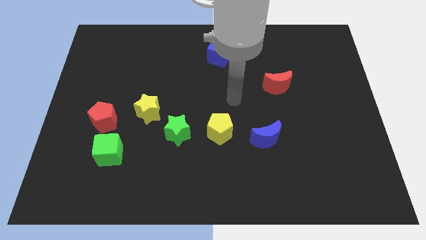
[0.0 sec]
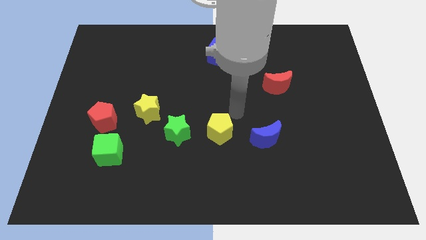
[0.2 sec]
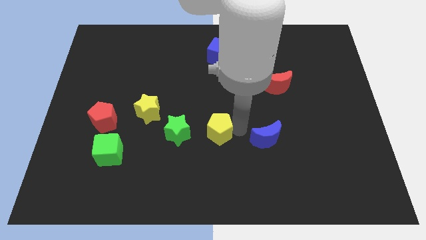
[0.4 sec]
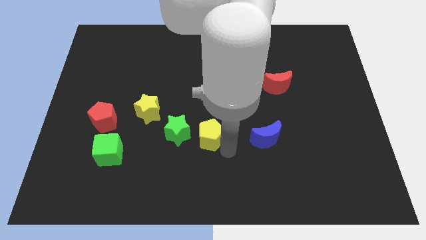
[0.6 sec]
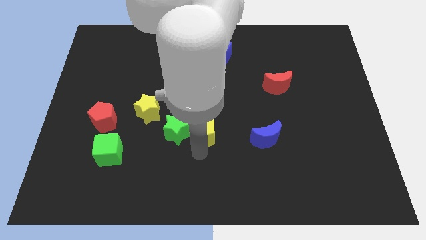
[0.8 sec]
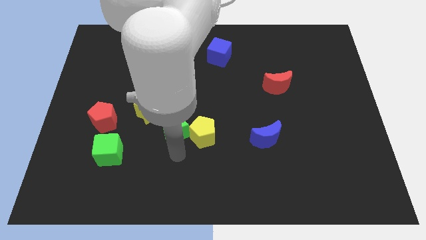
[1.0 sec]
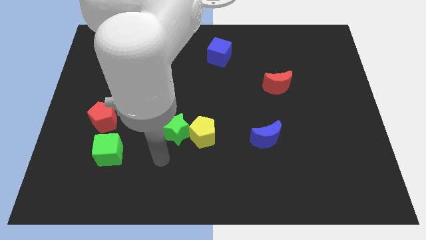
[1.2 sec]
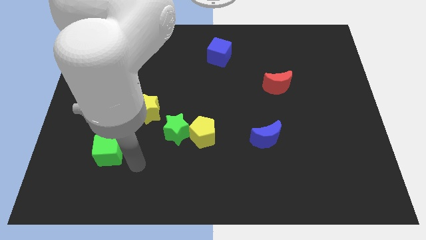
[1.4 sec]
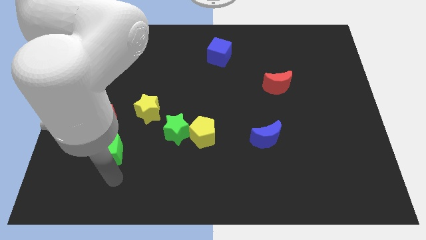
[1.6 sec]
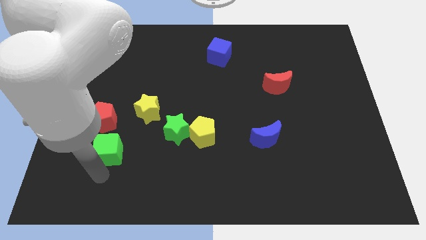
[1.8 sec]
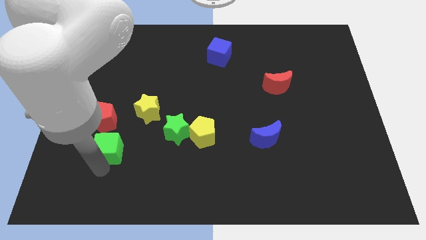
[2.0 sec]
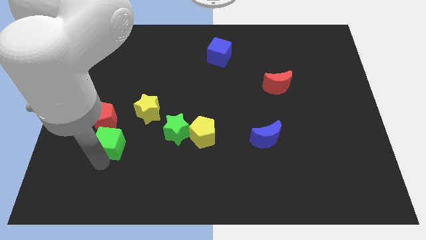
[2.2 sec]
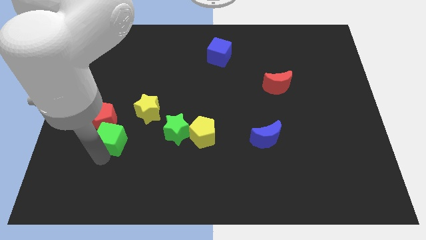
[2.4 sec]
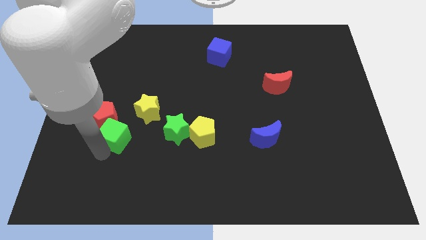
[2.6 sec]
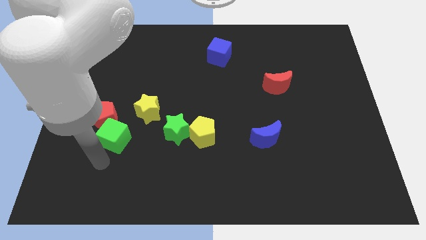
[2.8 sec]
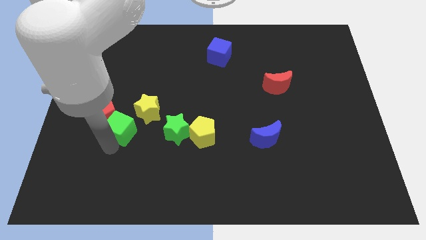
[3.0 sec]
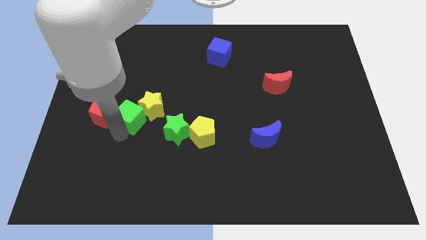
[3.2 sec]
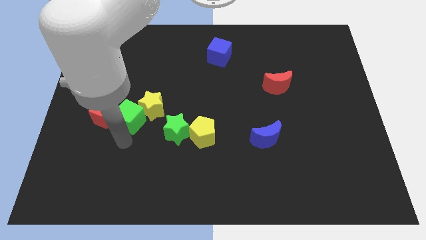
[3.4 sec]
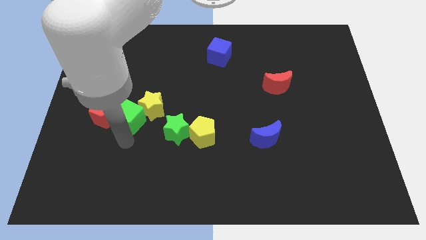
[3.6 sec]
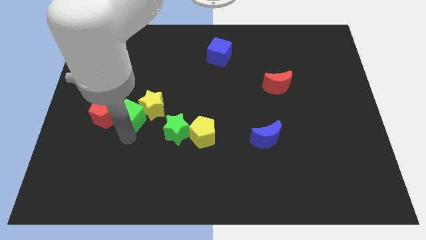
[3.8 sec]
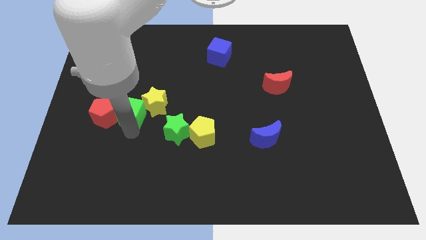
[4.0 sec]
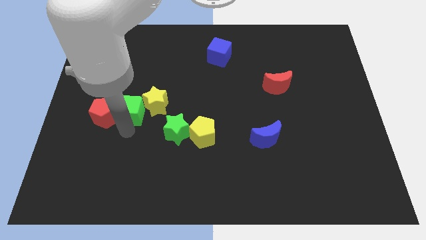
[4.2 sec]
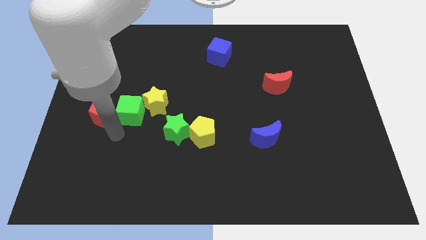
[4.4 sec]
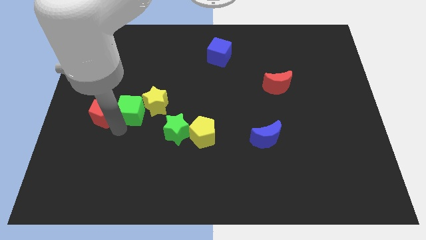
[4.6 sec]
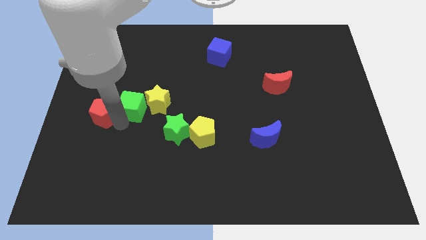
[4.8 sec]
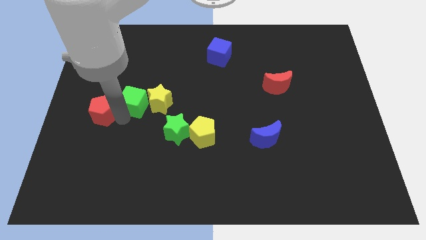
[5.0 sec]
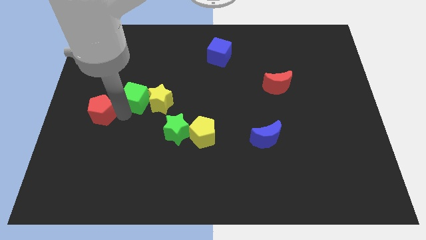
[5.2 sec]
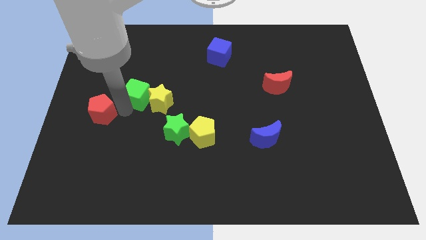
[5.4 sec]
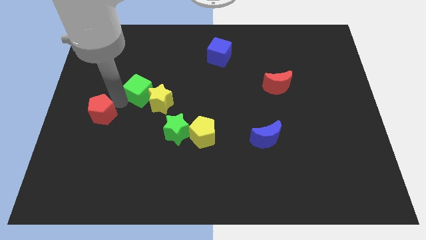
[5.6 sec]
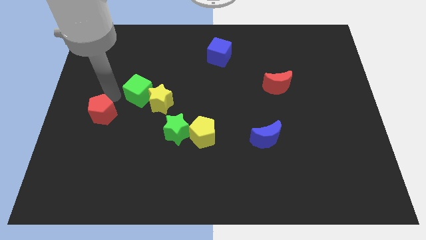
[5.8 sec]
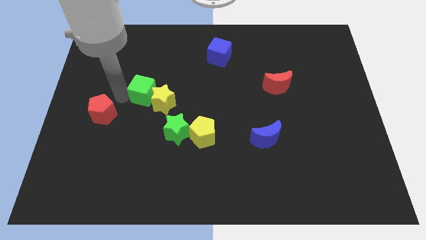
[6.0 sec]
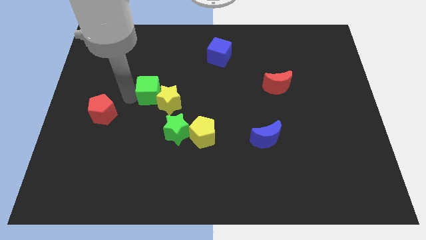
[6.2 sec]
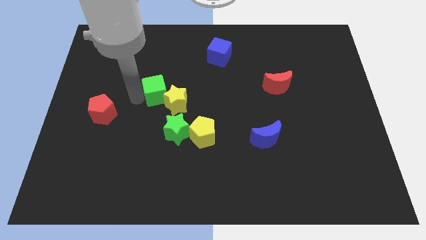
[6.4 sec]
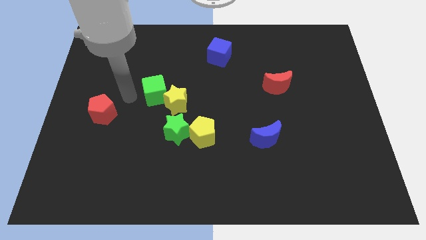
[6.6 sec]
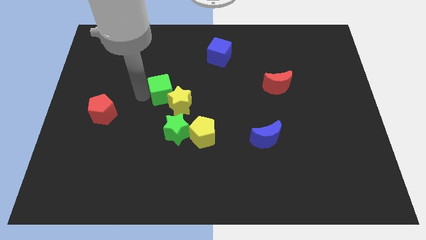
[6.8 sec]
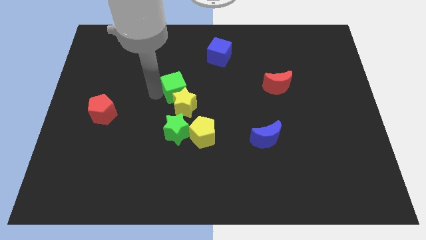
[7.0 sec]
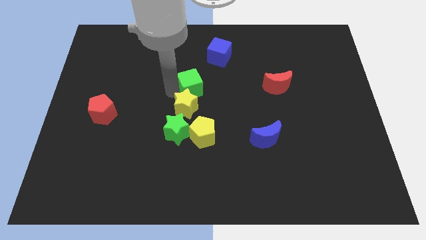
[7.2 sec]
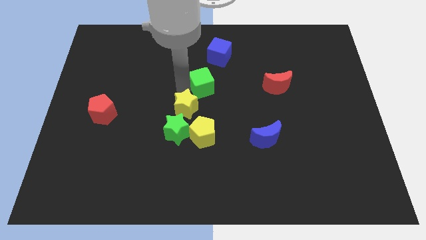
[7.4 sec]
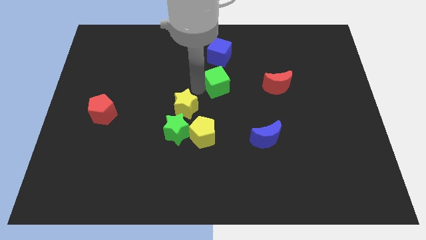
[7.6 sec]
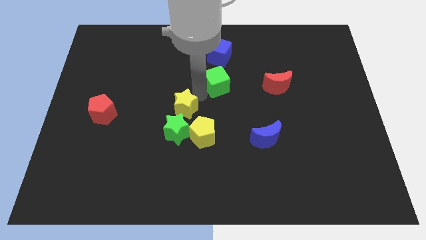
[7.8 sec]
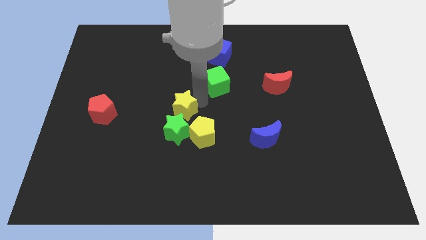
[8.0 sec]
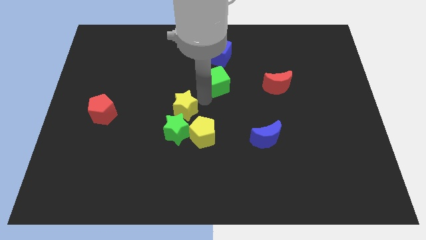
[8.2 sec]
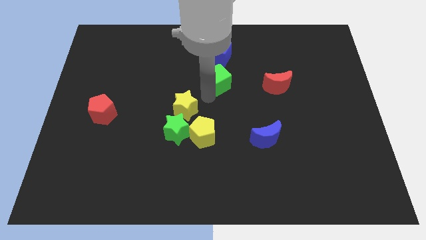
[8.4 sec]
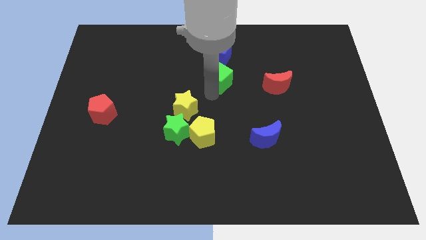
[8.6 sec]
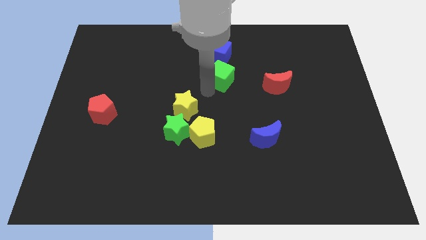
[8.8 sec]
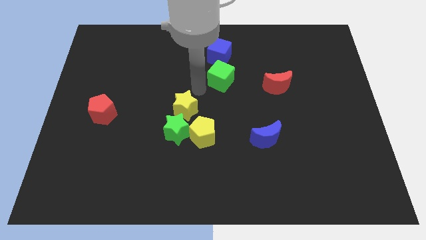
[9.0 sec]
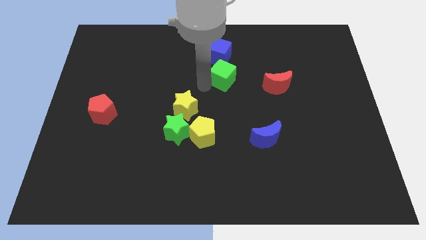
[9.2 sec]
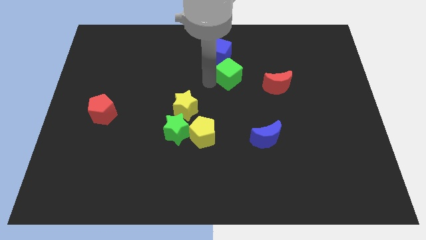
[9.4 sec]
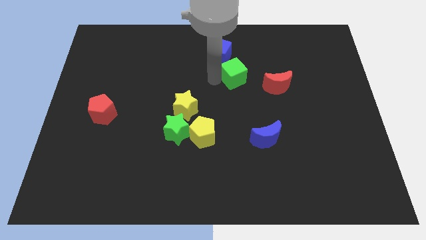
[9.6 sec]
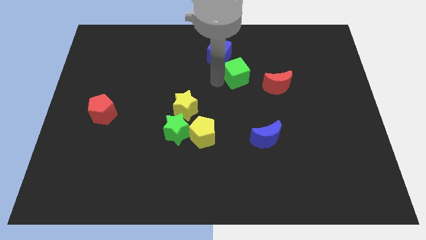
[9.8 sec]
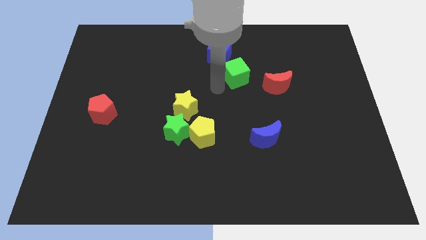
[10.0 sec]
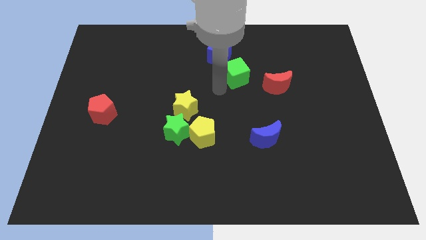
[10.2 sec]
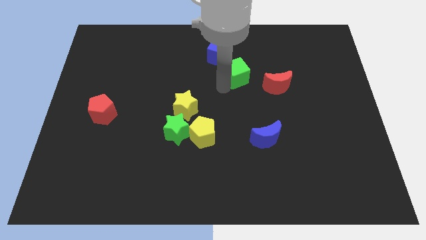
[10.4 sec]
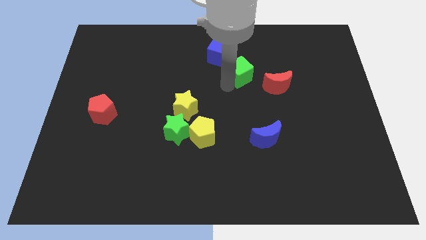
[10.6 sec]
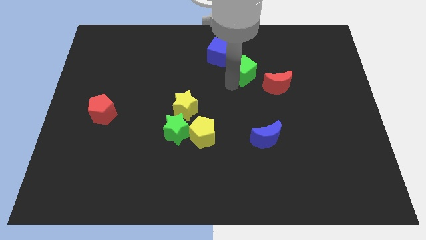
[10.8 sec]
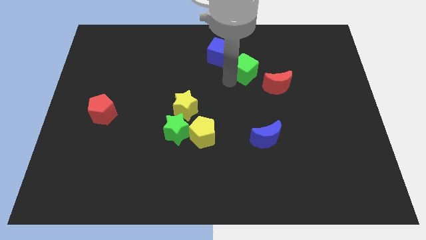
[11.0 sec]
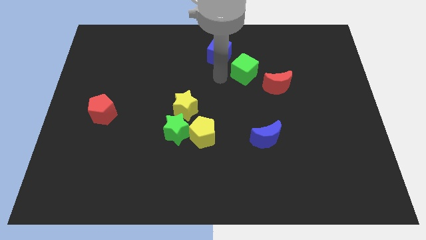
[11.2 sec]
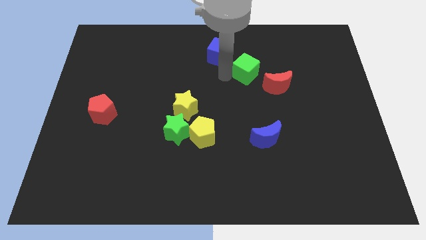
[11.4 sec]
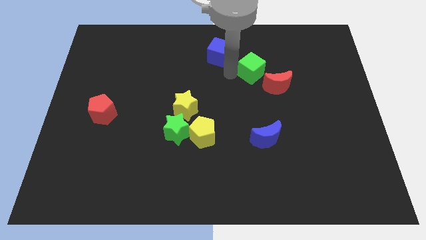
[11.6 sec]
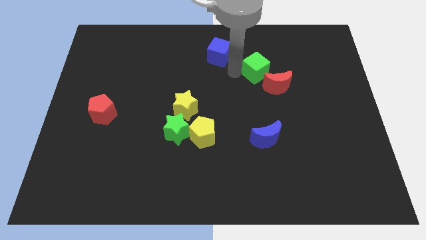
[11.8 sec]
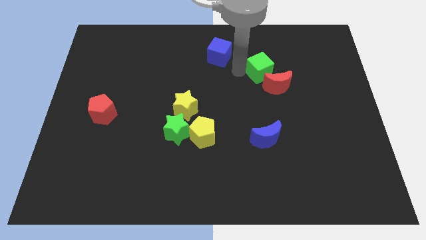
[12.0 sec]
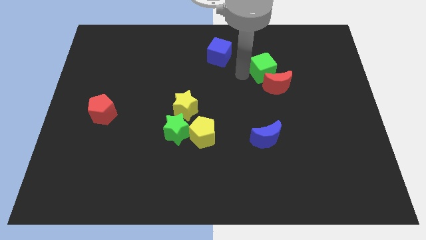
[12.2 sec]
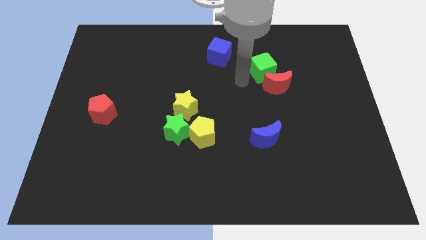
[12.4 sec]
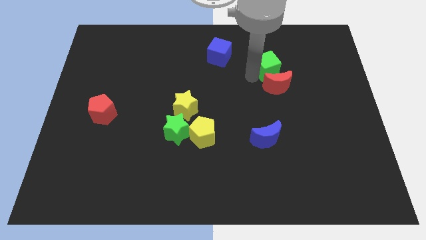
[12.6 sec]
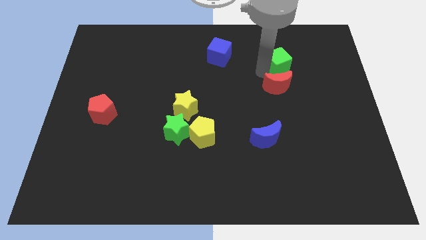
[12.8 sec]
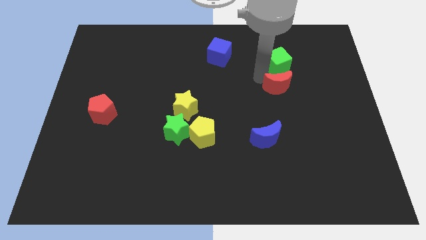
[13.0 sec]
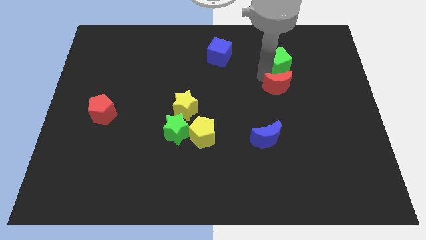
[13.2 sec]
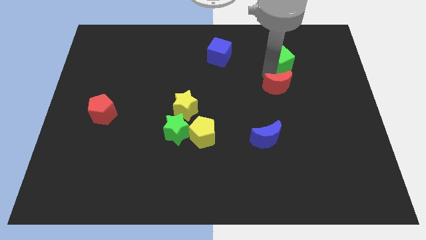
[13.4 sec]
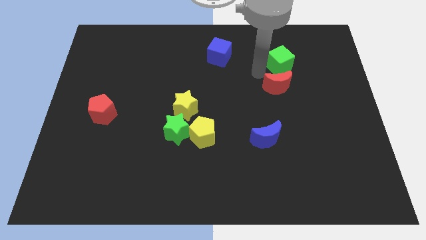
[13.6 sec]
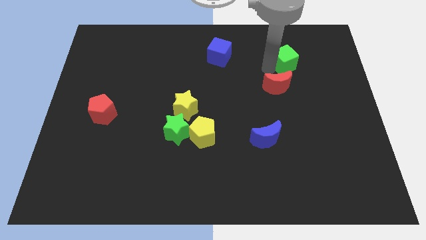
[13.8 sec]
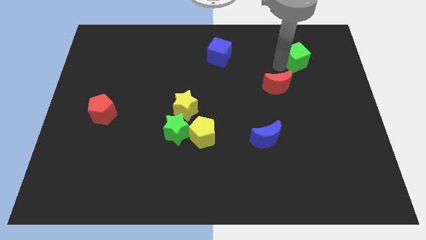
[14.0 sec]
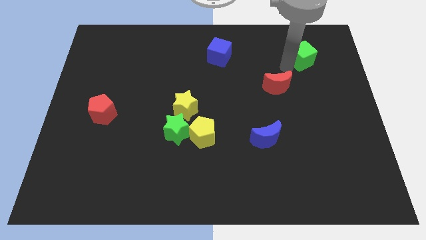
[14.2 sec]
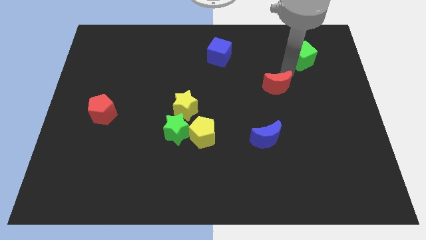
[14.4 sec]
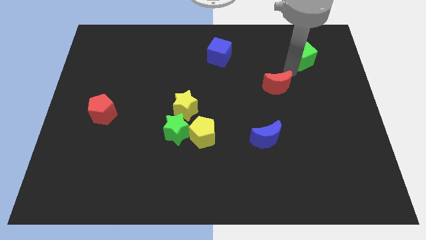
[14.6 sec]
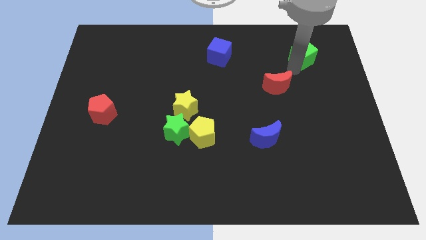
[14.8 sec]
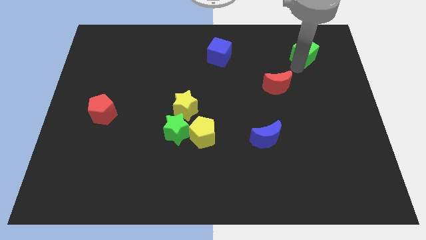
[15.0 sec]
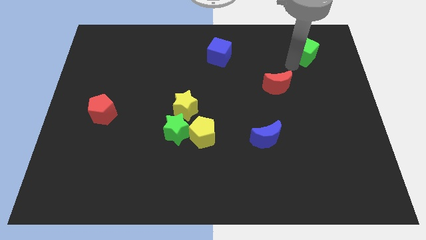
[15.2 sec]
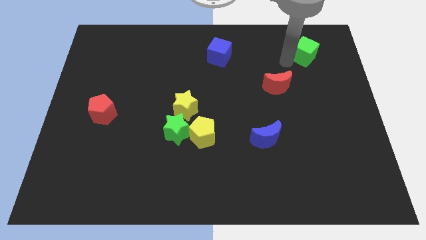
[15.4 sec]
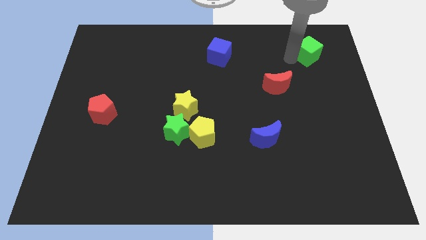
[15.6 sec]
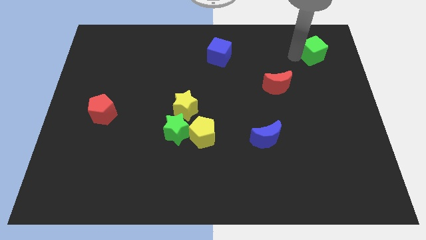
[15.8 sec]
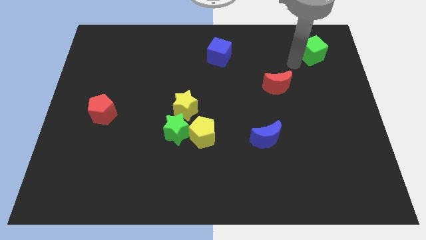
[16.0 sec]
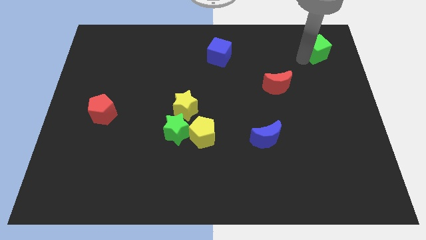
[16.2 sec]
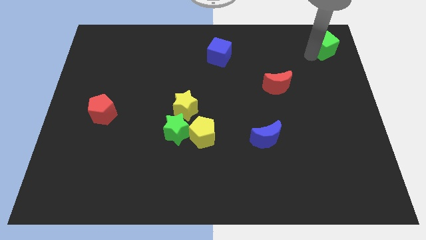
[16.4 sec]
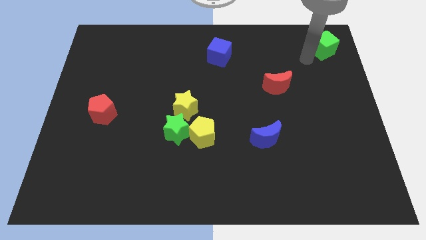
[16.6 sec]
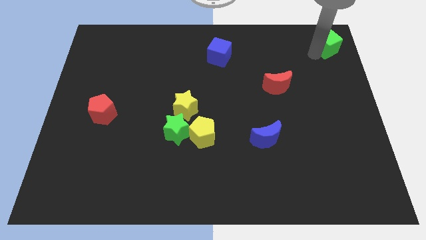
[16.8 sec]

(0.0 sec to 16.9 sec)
push the green cube to the top right corner
